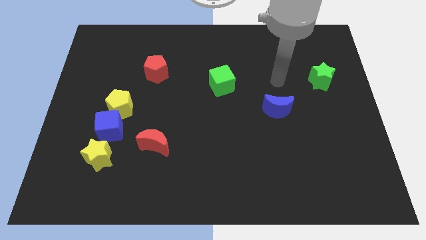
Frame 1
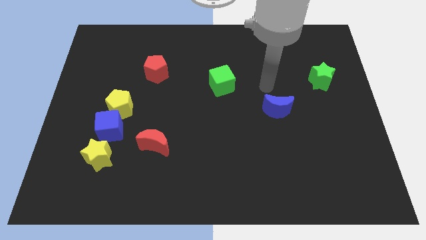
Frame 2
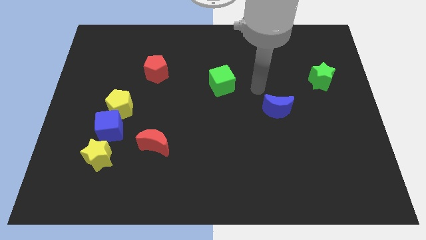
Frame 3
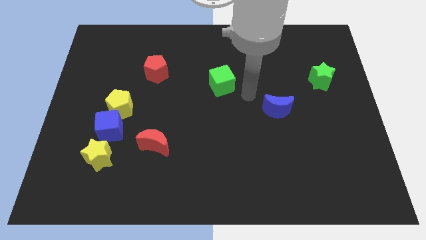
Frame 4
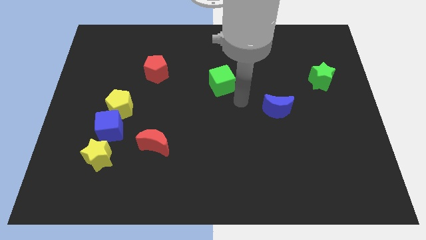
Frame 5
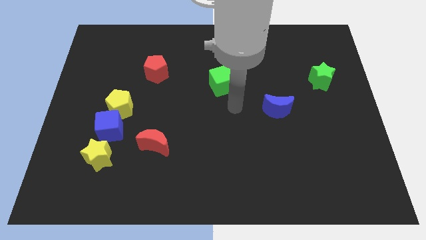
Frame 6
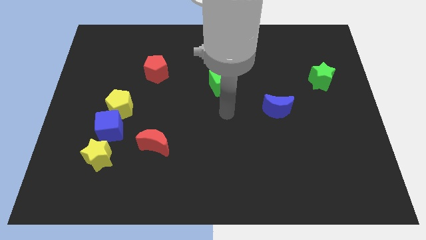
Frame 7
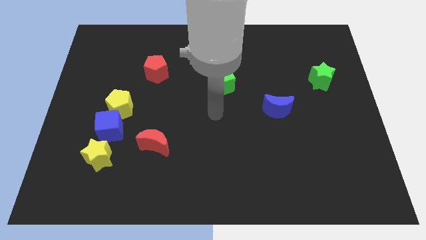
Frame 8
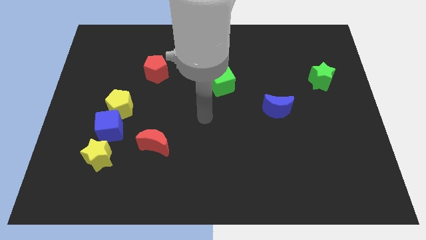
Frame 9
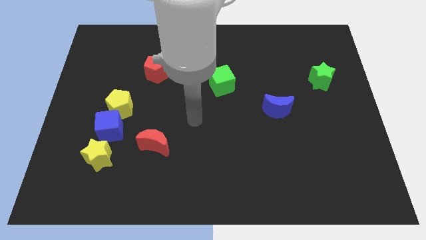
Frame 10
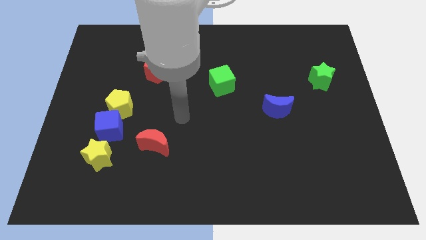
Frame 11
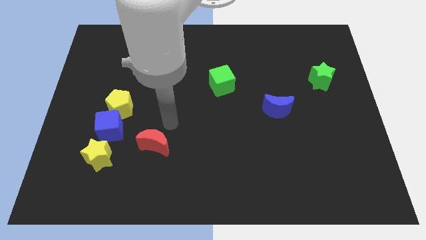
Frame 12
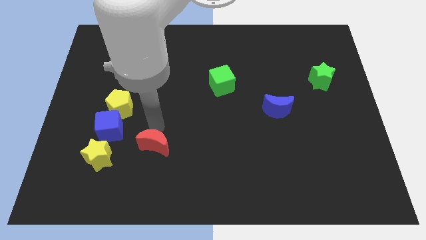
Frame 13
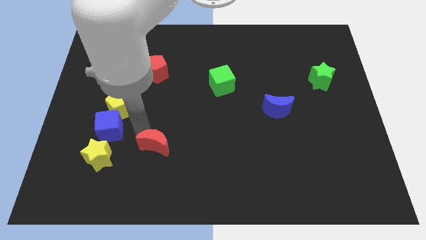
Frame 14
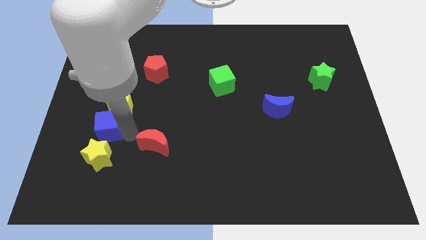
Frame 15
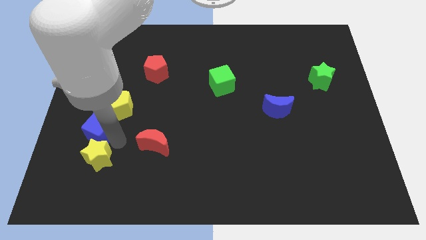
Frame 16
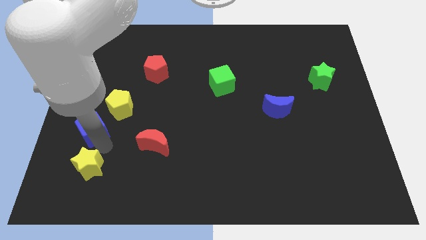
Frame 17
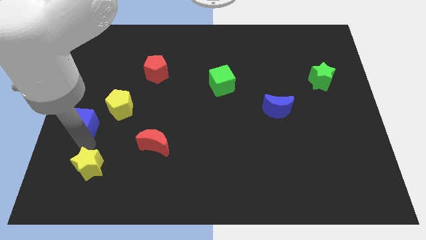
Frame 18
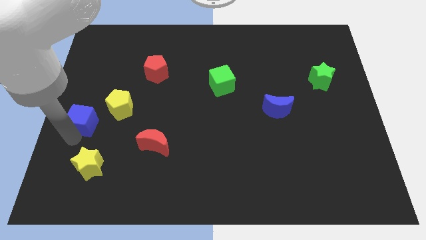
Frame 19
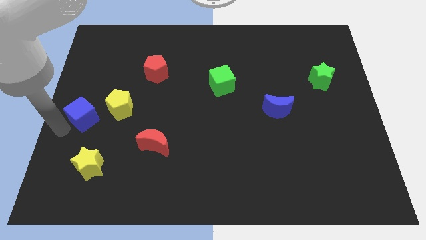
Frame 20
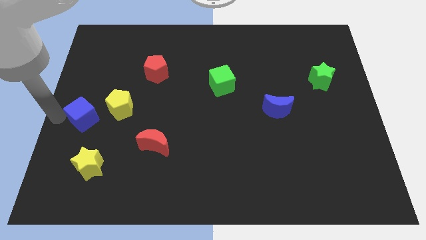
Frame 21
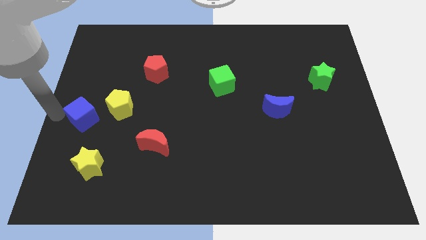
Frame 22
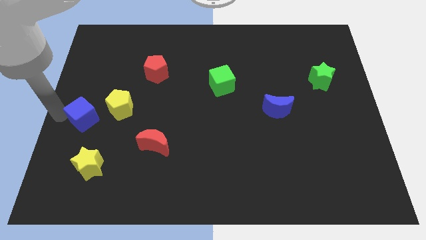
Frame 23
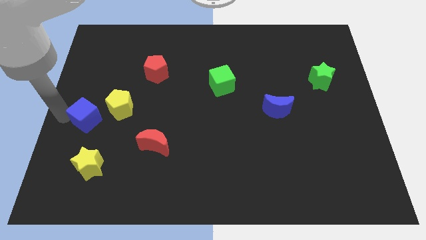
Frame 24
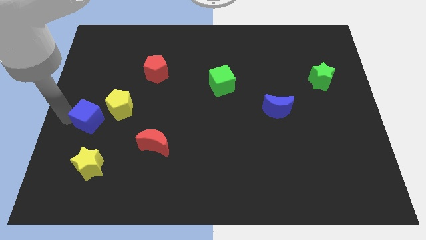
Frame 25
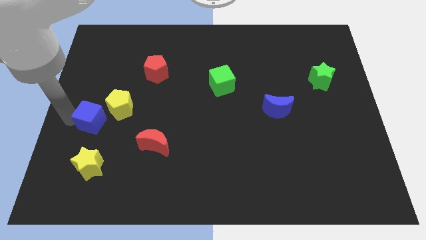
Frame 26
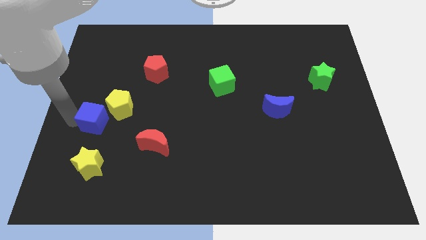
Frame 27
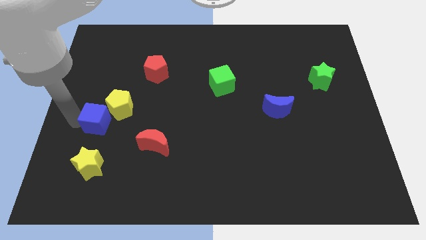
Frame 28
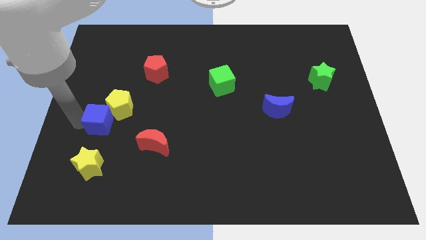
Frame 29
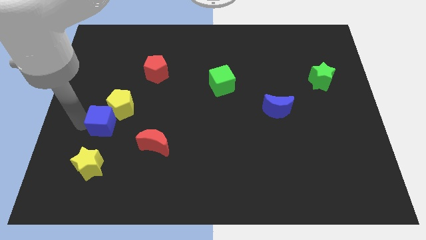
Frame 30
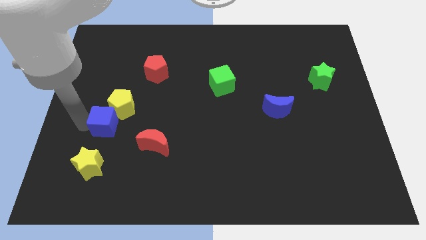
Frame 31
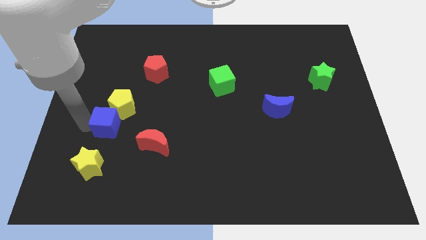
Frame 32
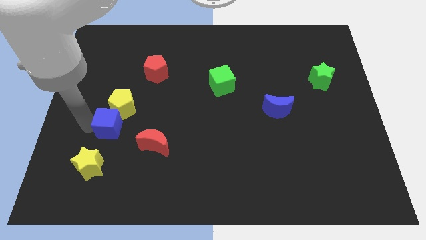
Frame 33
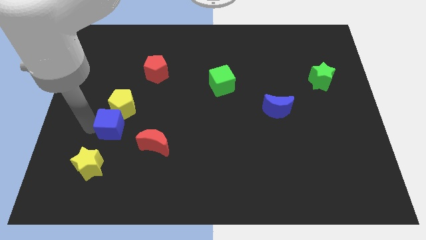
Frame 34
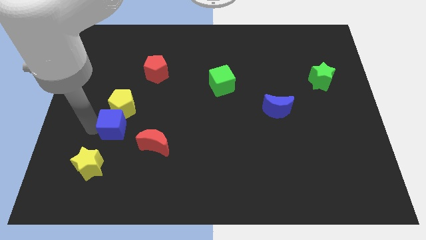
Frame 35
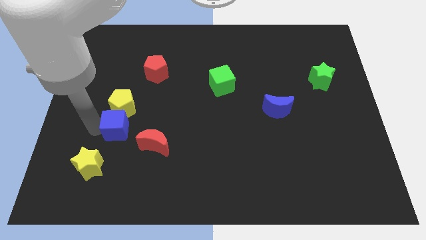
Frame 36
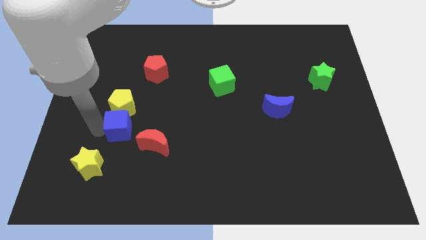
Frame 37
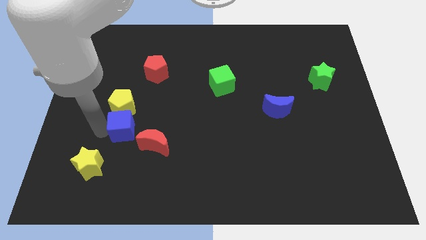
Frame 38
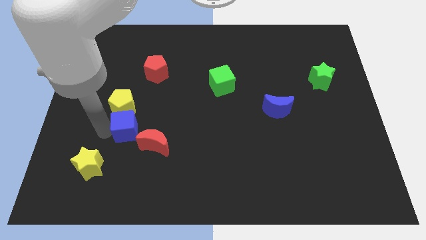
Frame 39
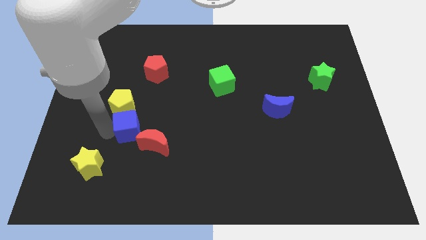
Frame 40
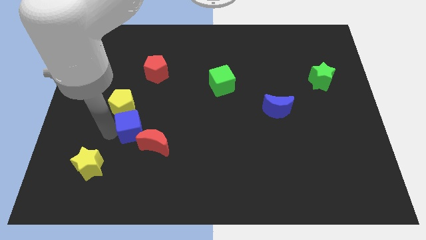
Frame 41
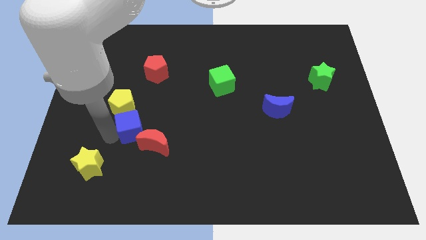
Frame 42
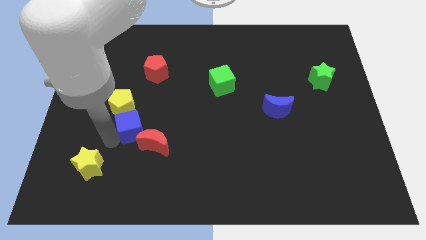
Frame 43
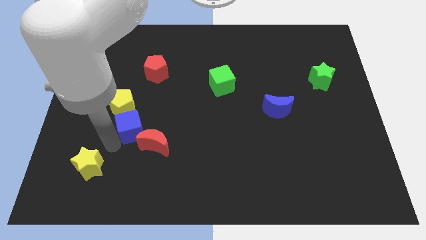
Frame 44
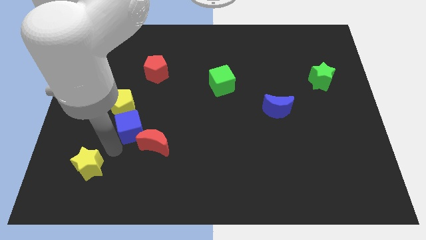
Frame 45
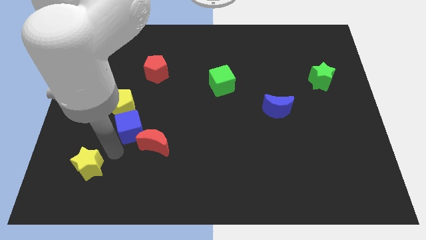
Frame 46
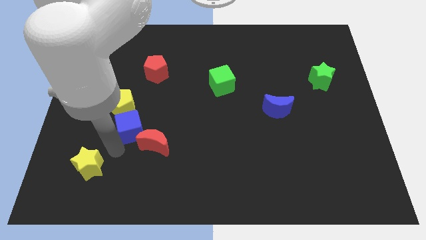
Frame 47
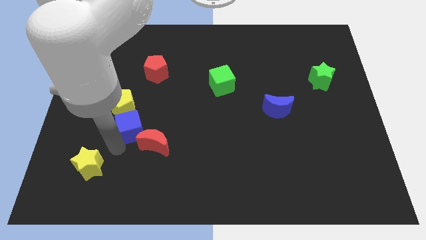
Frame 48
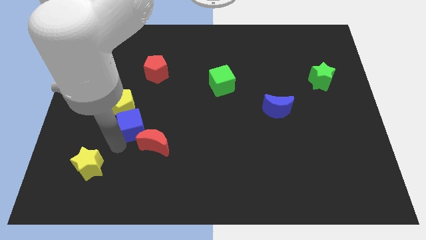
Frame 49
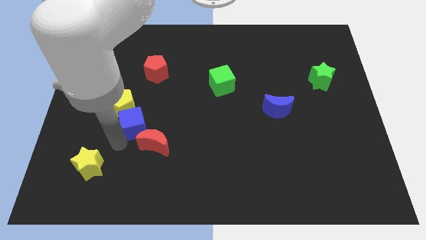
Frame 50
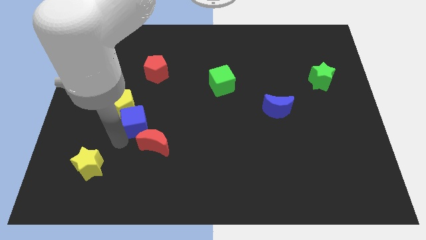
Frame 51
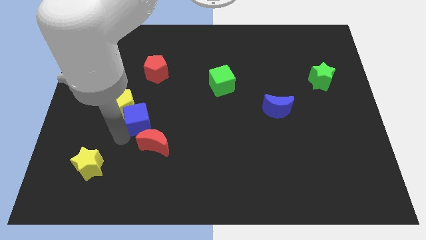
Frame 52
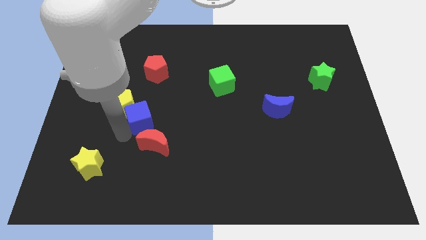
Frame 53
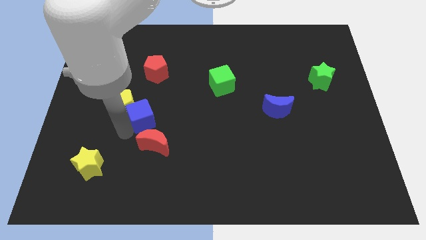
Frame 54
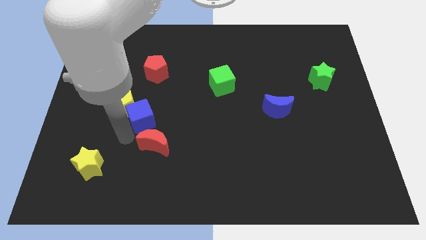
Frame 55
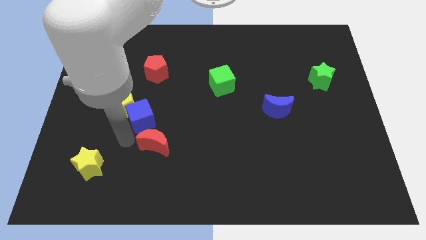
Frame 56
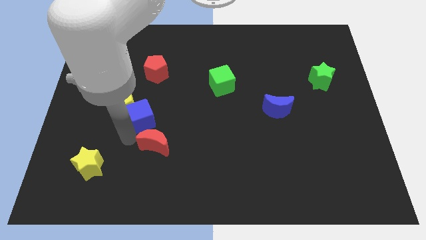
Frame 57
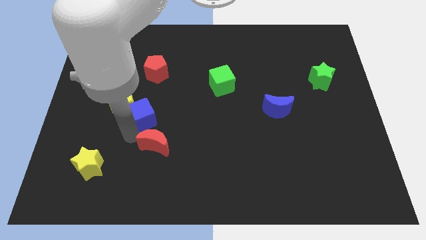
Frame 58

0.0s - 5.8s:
slightly move the blue cube upwards and right diagonally

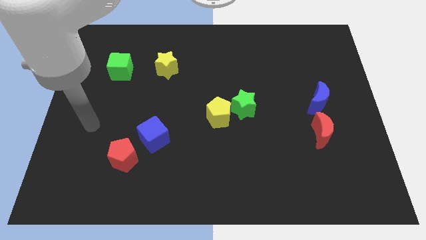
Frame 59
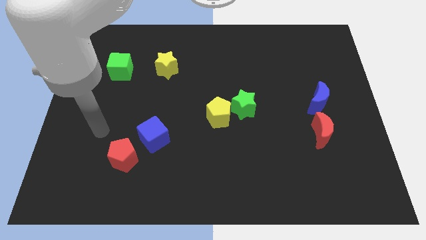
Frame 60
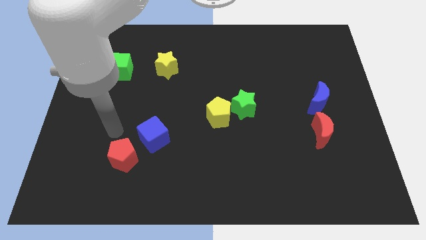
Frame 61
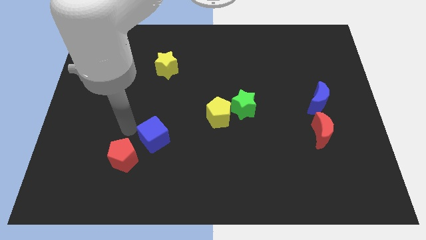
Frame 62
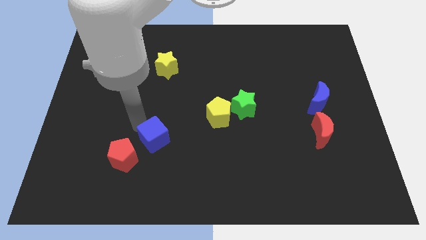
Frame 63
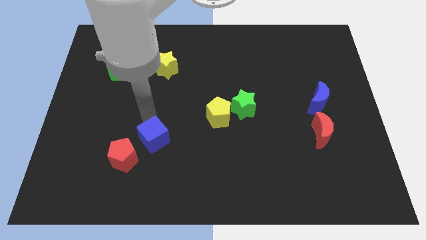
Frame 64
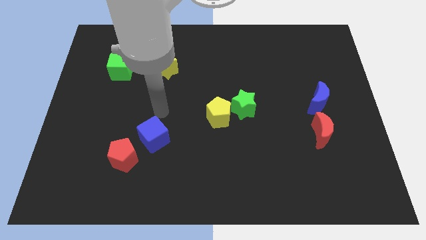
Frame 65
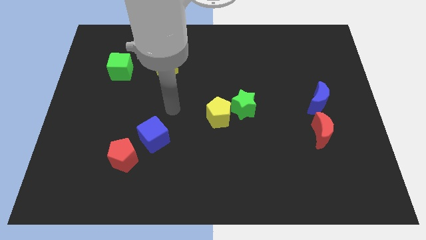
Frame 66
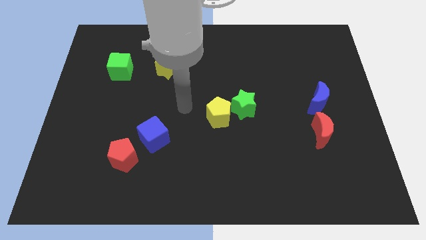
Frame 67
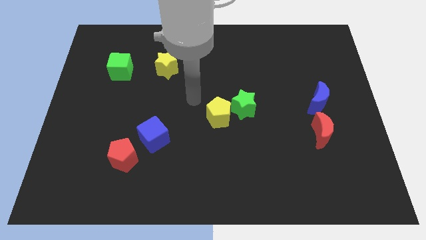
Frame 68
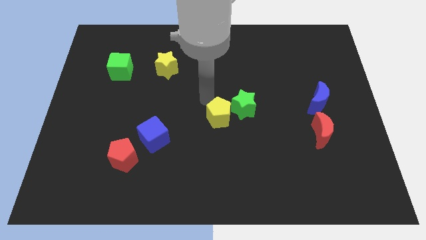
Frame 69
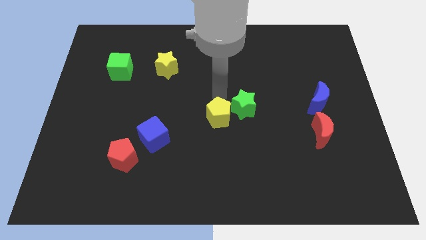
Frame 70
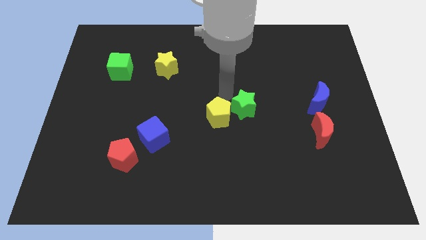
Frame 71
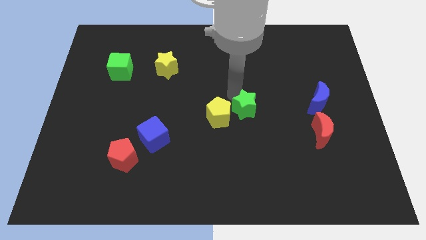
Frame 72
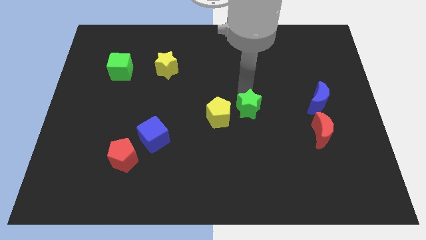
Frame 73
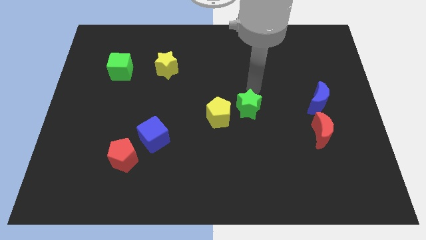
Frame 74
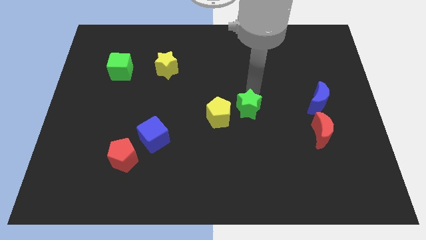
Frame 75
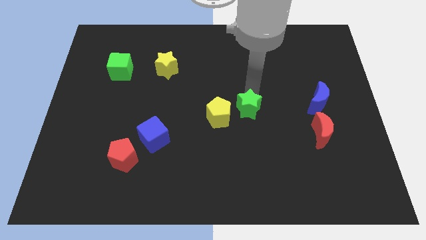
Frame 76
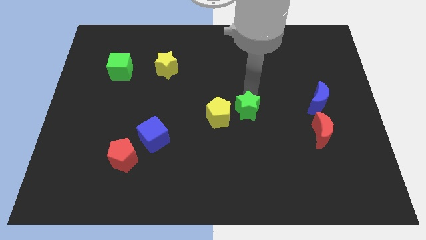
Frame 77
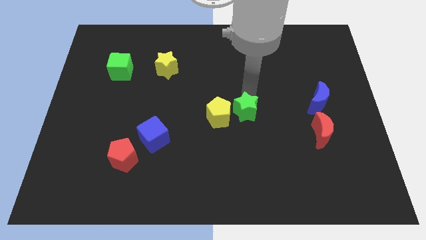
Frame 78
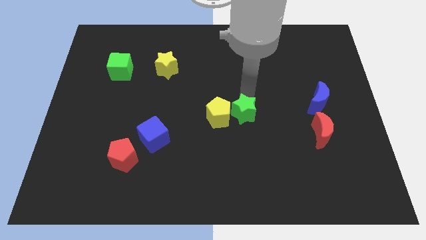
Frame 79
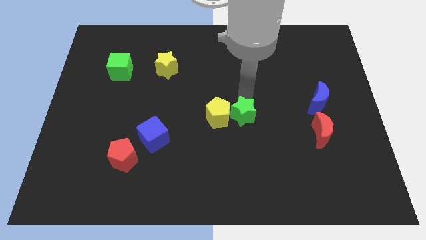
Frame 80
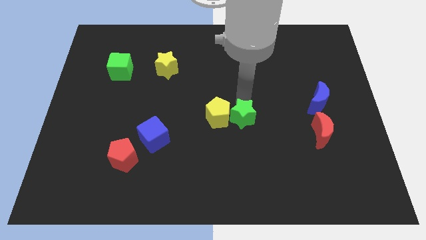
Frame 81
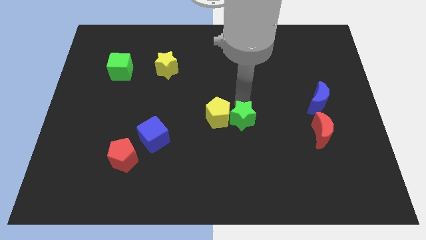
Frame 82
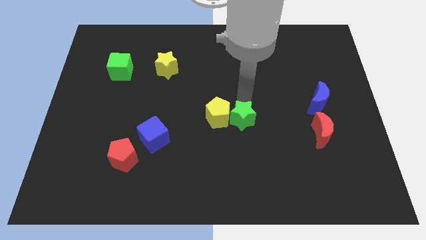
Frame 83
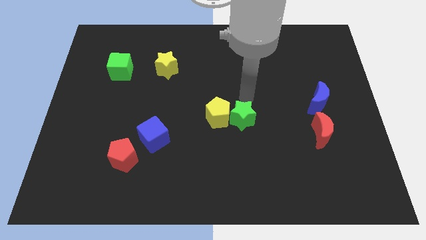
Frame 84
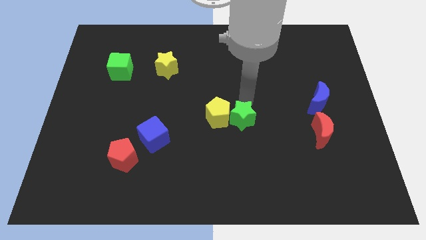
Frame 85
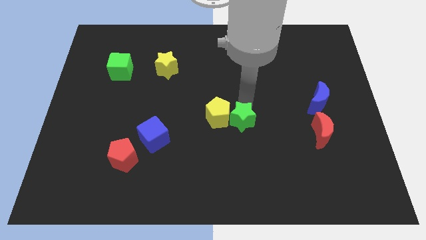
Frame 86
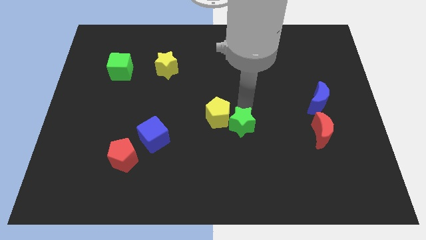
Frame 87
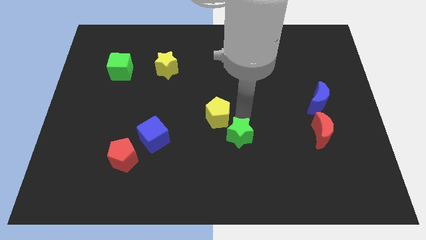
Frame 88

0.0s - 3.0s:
move the green star downwards a bit
